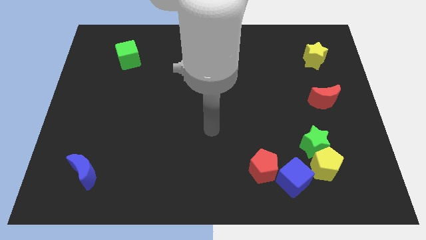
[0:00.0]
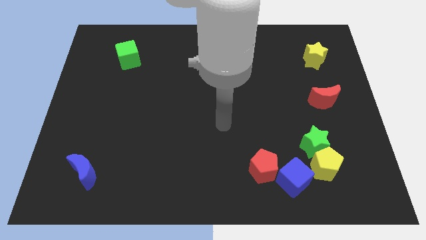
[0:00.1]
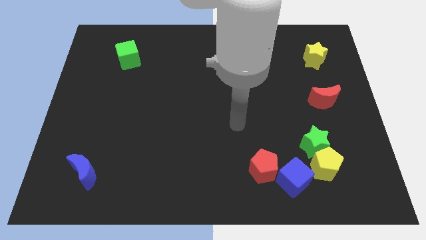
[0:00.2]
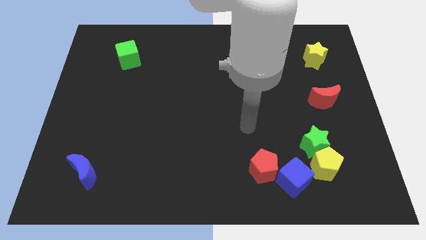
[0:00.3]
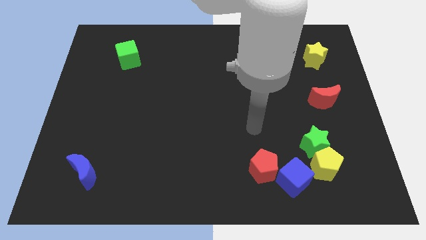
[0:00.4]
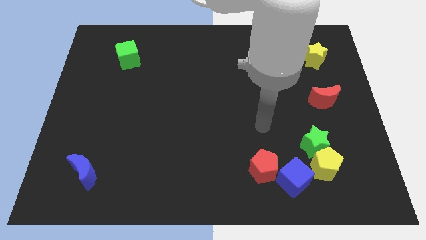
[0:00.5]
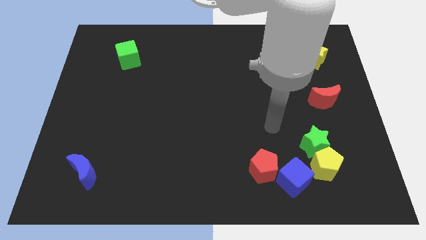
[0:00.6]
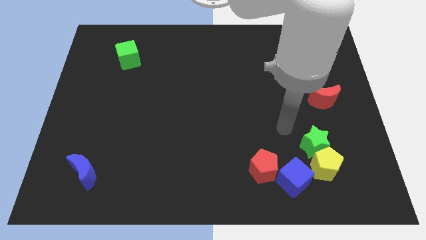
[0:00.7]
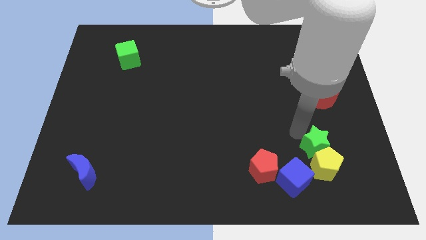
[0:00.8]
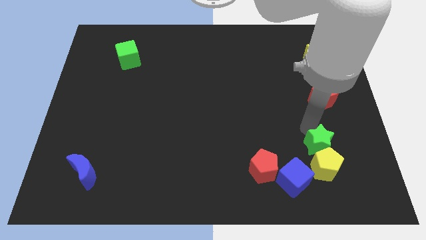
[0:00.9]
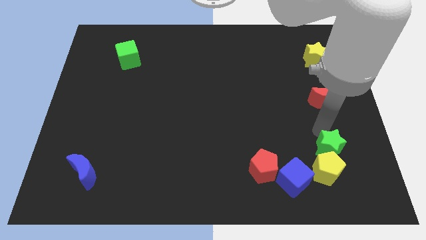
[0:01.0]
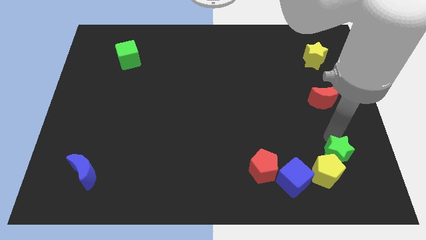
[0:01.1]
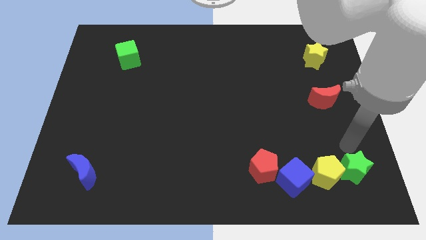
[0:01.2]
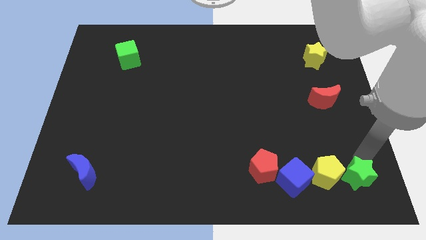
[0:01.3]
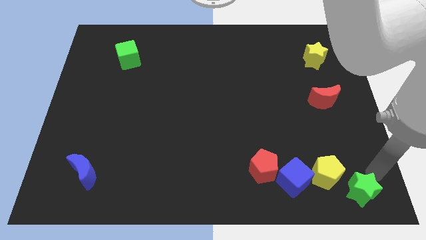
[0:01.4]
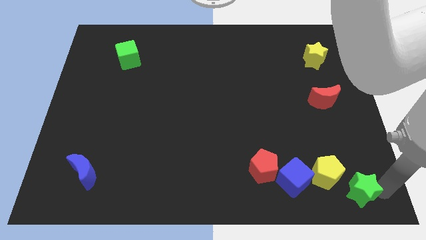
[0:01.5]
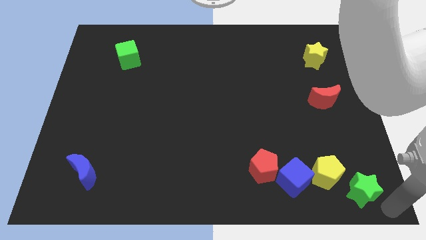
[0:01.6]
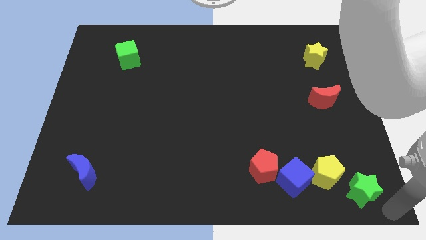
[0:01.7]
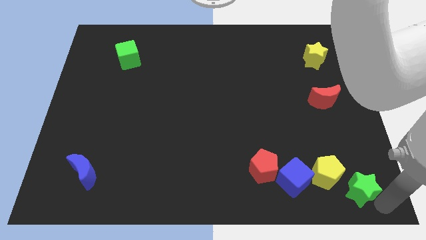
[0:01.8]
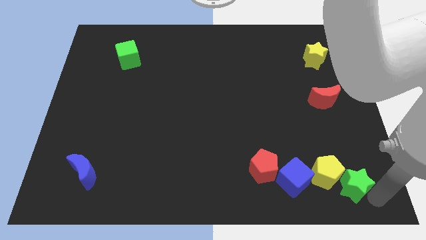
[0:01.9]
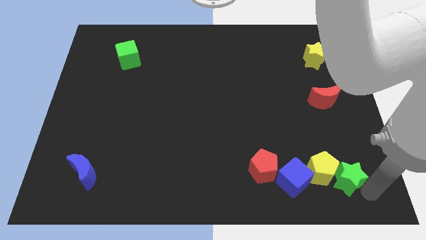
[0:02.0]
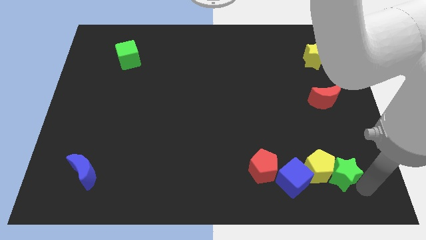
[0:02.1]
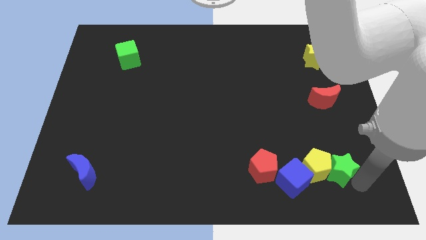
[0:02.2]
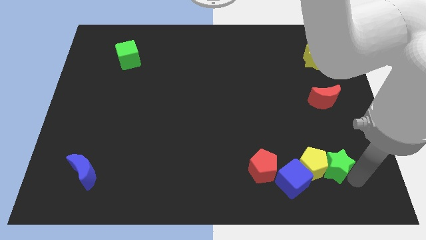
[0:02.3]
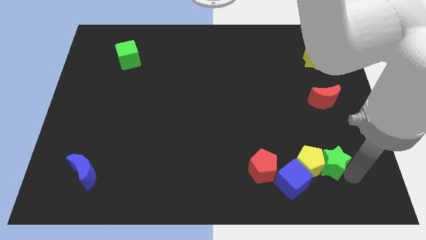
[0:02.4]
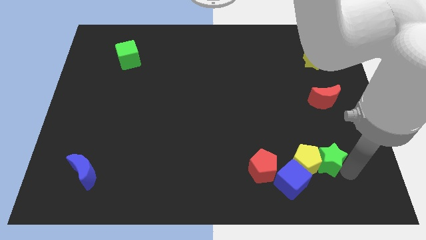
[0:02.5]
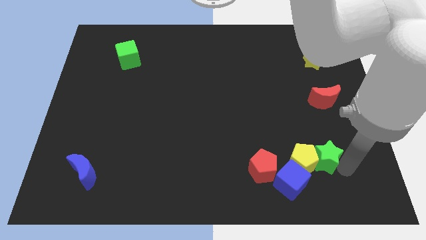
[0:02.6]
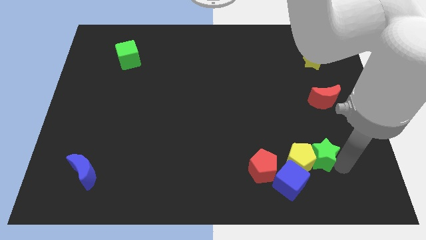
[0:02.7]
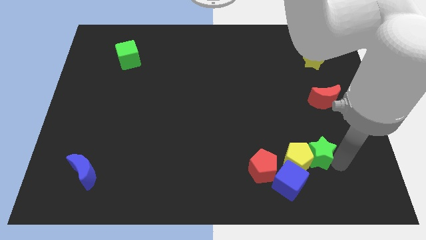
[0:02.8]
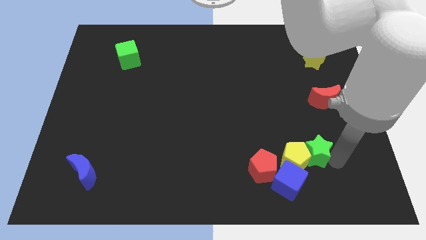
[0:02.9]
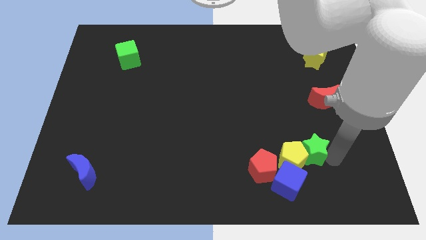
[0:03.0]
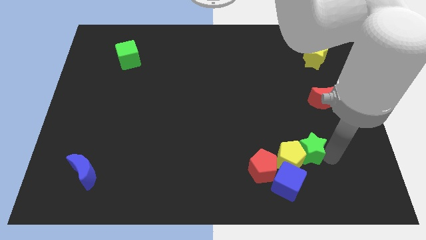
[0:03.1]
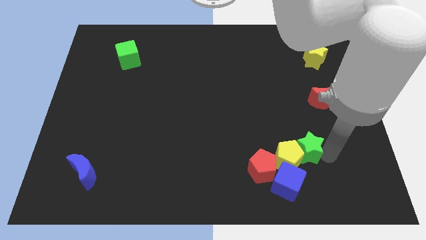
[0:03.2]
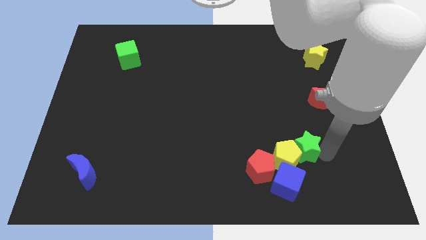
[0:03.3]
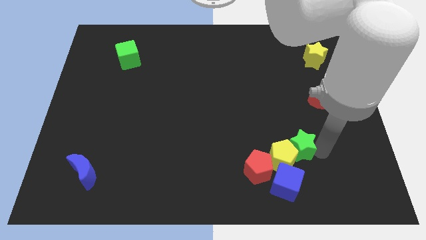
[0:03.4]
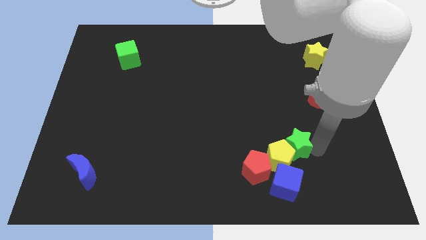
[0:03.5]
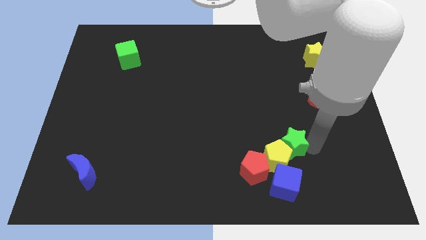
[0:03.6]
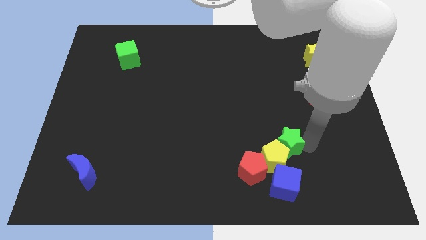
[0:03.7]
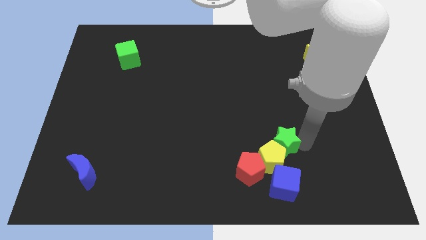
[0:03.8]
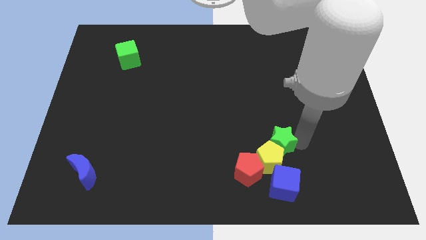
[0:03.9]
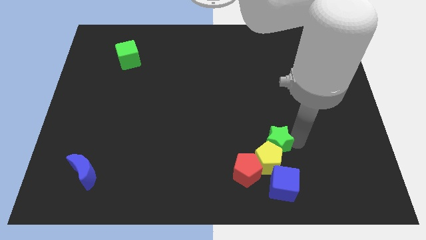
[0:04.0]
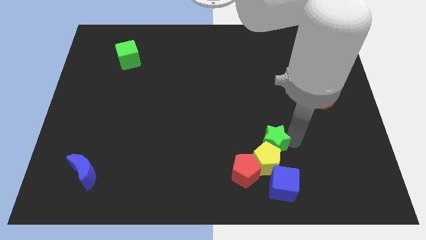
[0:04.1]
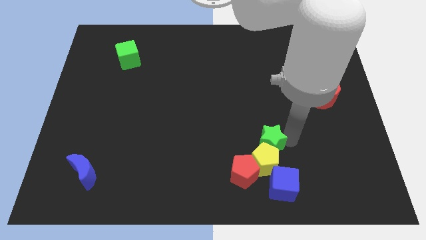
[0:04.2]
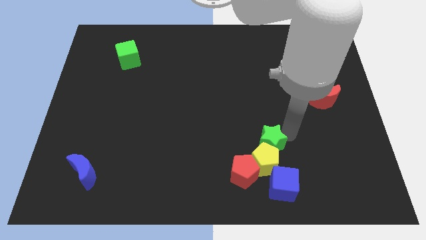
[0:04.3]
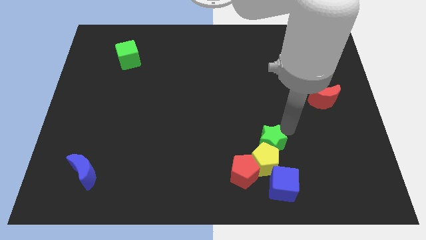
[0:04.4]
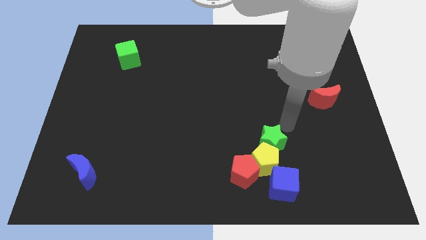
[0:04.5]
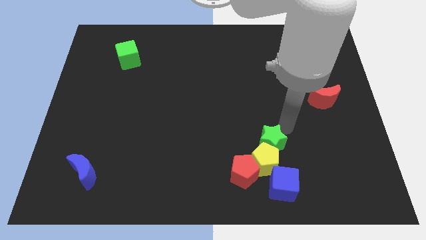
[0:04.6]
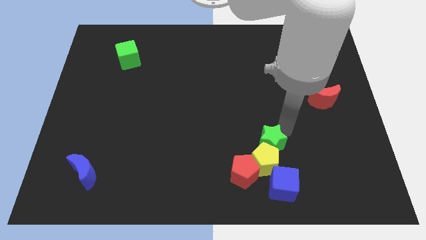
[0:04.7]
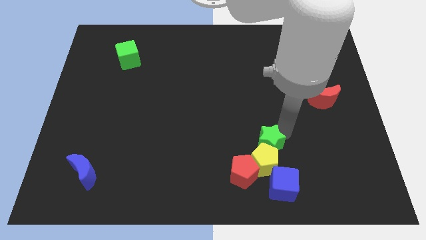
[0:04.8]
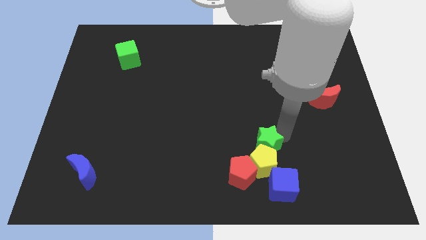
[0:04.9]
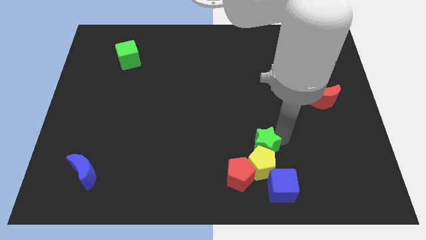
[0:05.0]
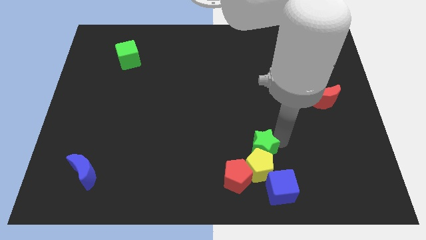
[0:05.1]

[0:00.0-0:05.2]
put the green star diagonally up and to the left of the blue cube

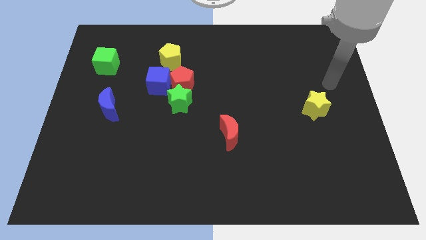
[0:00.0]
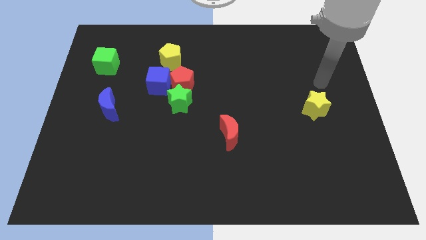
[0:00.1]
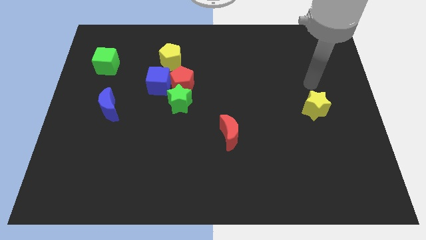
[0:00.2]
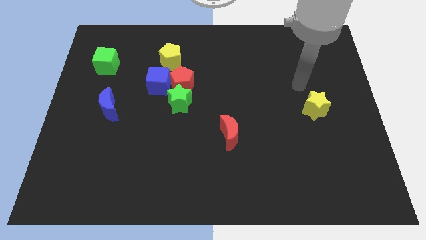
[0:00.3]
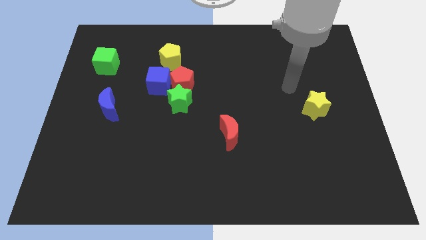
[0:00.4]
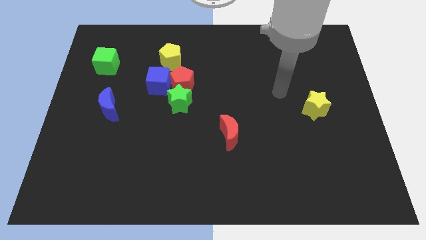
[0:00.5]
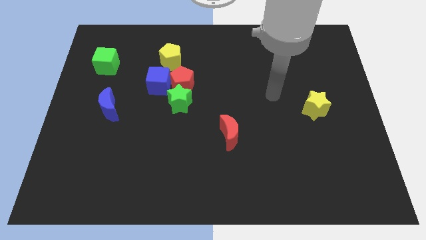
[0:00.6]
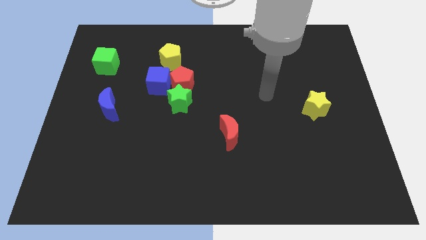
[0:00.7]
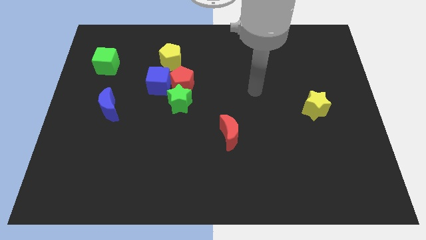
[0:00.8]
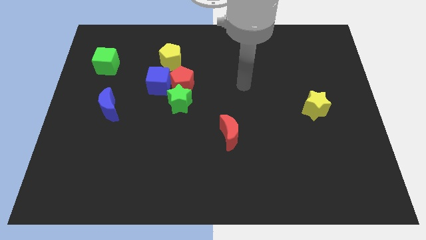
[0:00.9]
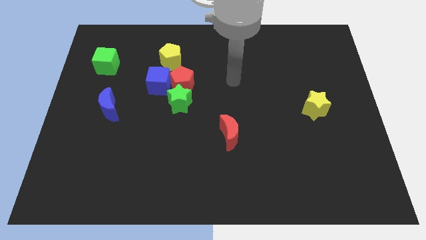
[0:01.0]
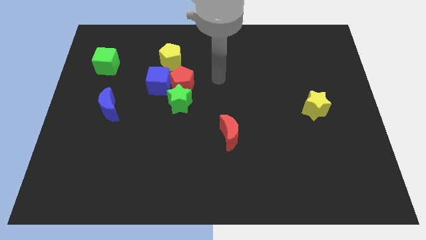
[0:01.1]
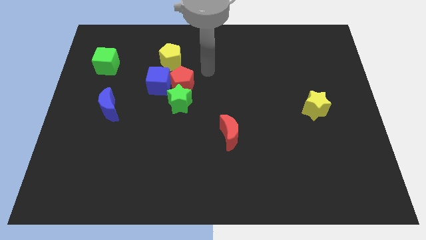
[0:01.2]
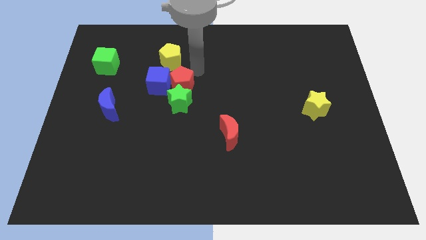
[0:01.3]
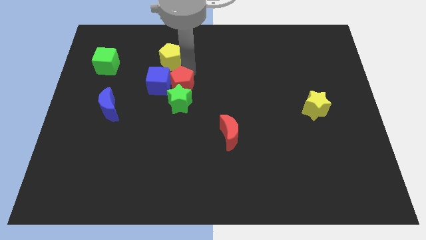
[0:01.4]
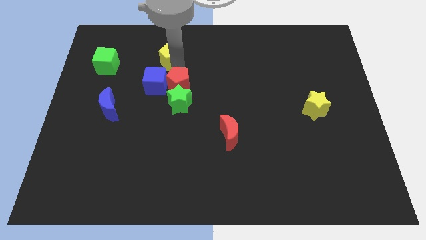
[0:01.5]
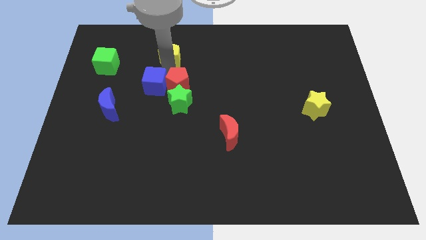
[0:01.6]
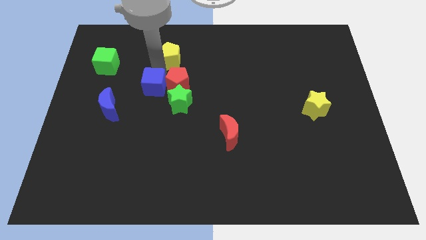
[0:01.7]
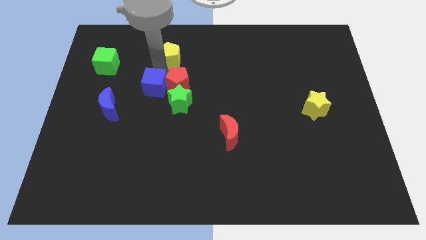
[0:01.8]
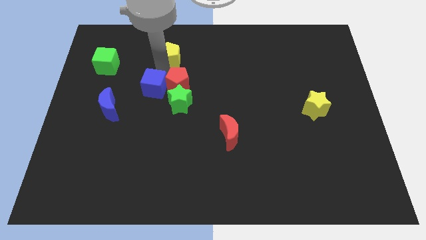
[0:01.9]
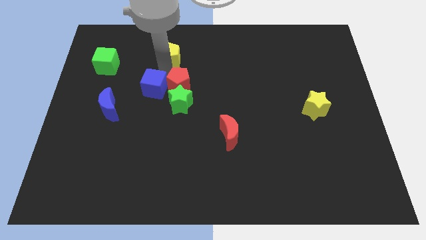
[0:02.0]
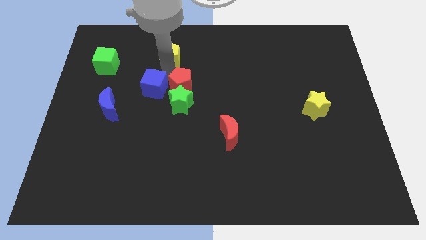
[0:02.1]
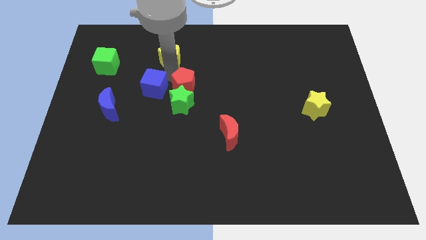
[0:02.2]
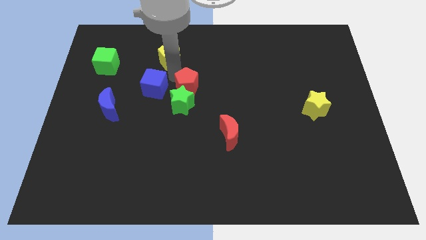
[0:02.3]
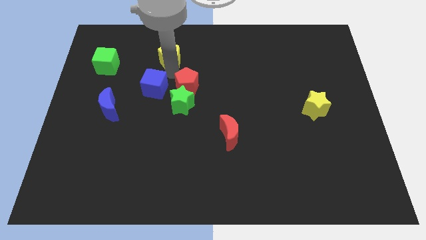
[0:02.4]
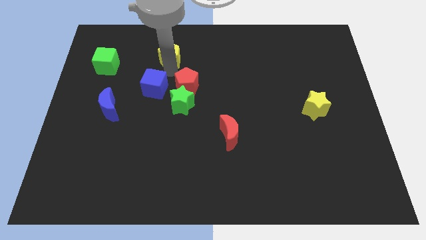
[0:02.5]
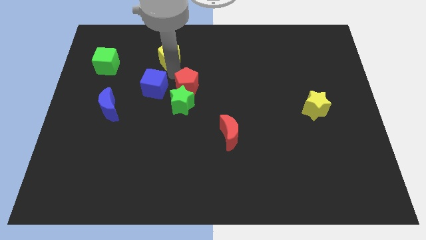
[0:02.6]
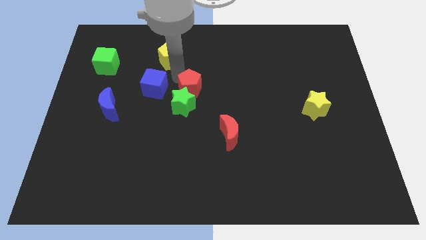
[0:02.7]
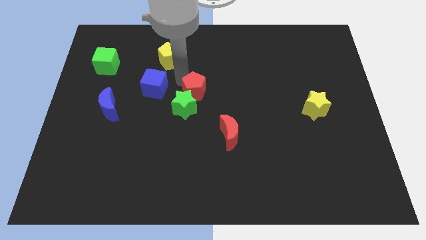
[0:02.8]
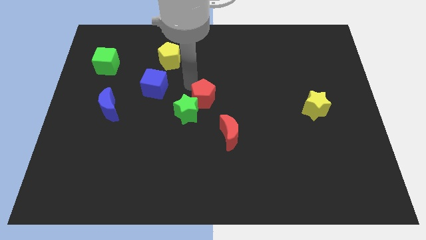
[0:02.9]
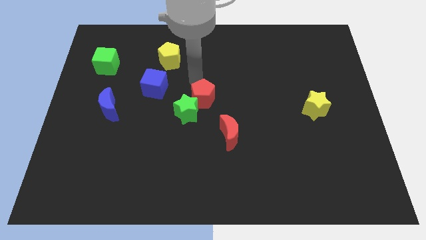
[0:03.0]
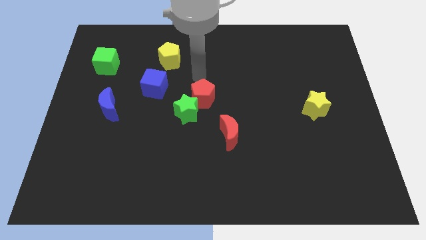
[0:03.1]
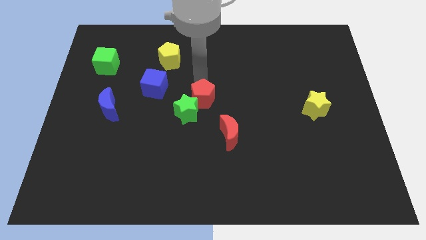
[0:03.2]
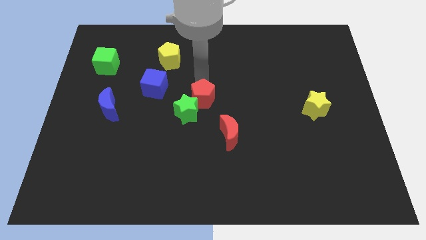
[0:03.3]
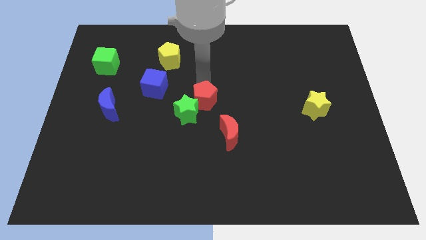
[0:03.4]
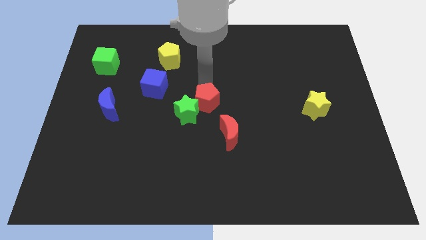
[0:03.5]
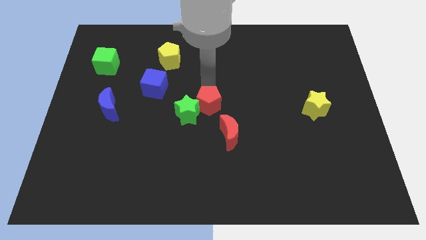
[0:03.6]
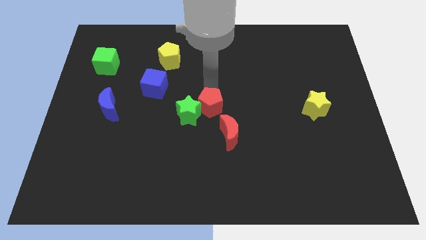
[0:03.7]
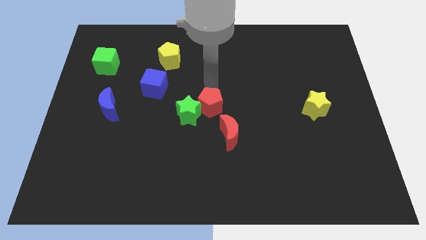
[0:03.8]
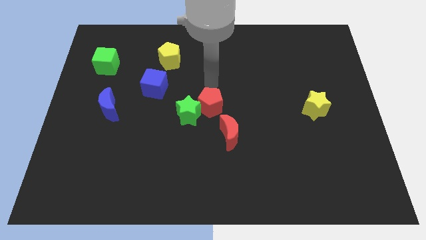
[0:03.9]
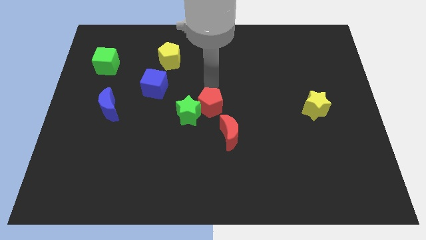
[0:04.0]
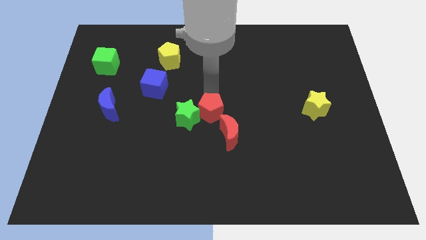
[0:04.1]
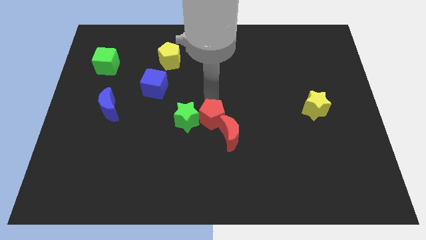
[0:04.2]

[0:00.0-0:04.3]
put the red pentagon to the bottom right side of the green star
